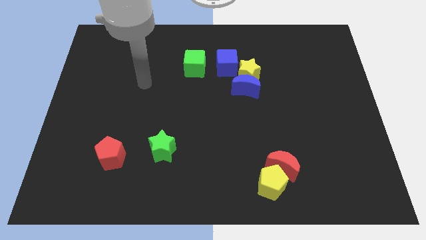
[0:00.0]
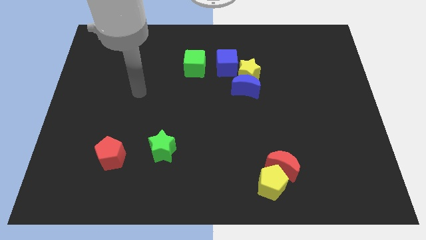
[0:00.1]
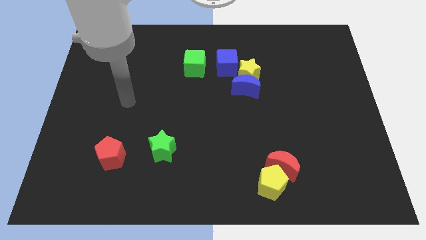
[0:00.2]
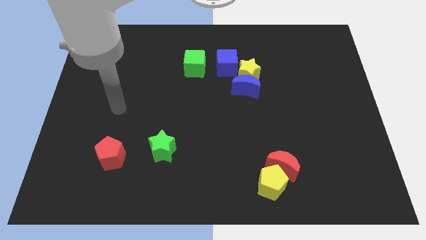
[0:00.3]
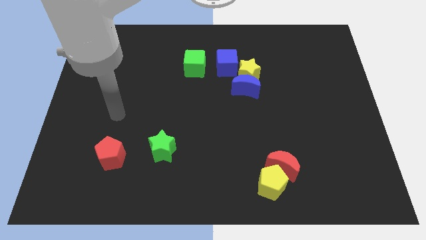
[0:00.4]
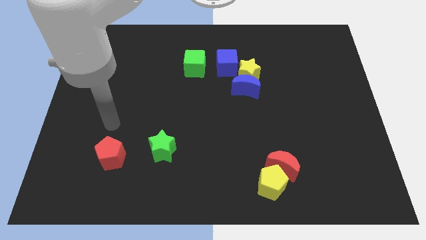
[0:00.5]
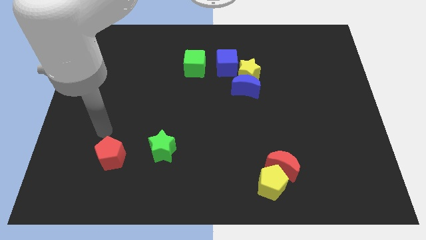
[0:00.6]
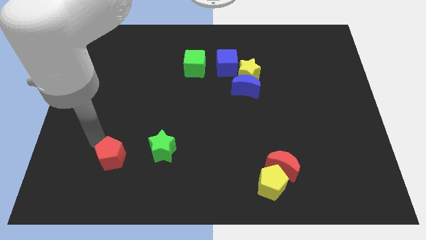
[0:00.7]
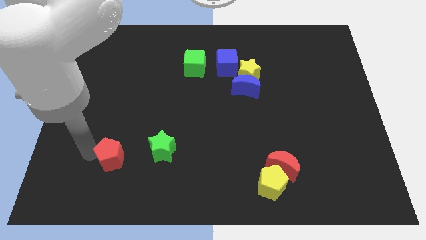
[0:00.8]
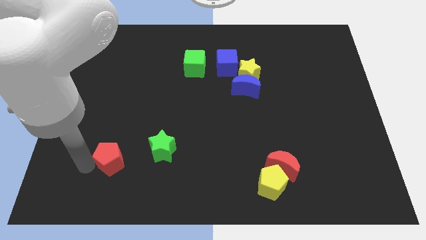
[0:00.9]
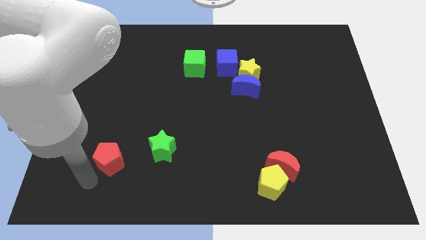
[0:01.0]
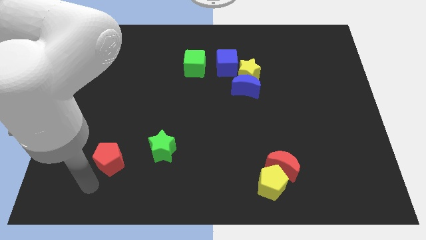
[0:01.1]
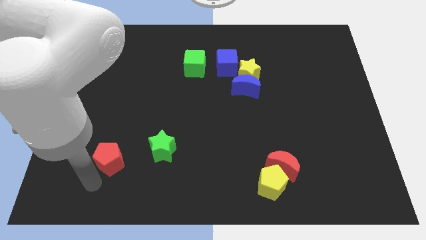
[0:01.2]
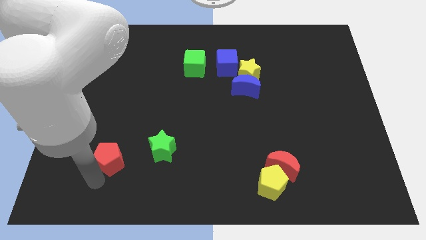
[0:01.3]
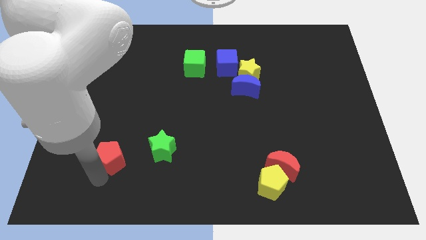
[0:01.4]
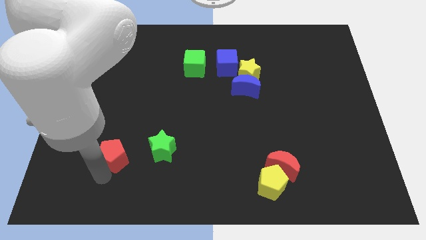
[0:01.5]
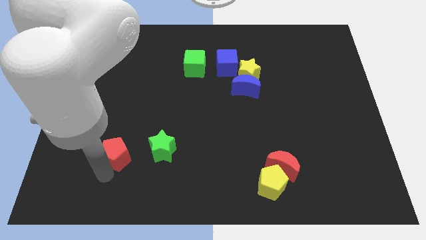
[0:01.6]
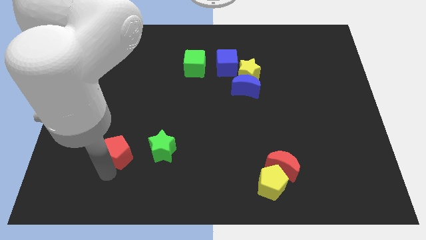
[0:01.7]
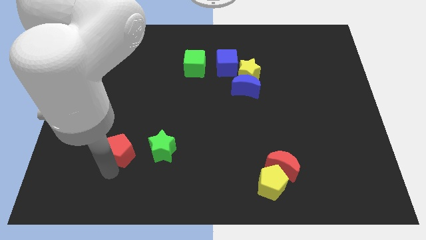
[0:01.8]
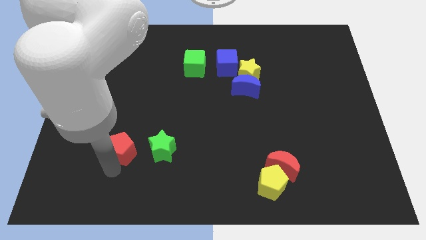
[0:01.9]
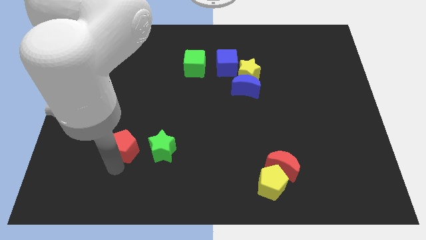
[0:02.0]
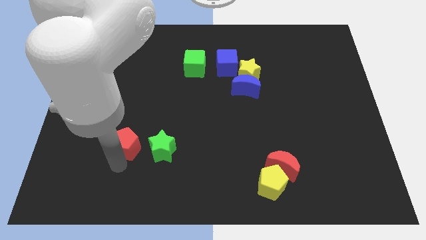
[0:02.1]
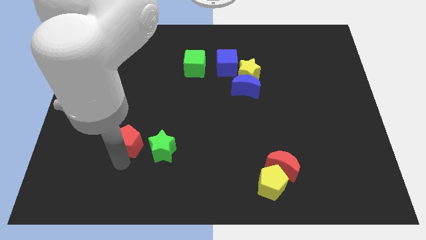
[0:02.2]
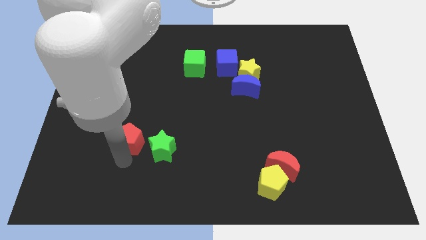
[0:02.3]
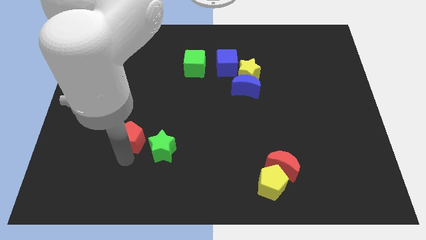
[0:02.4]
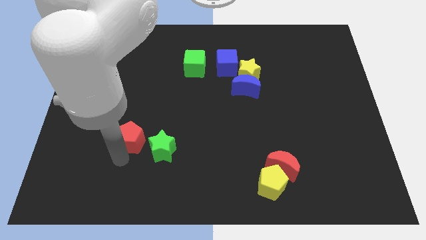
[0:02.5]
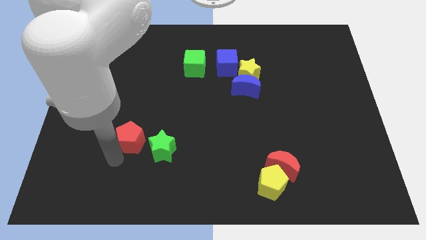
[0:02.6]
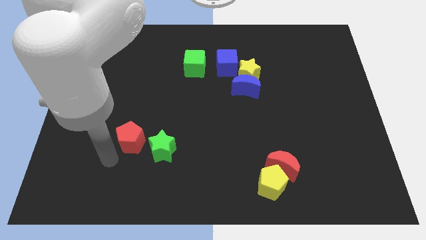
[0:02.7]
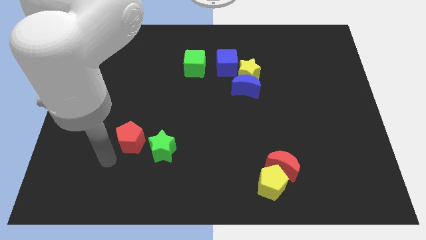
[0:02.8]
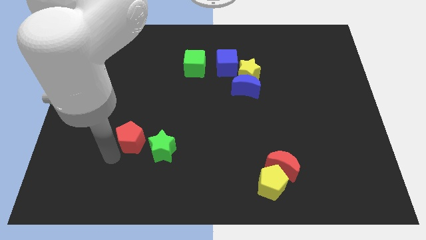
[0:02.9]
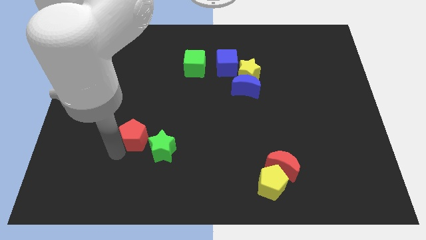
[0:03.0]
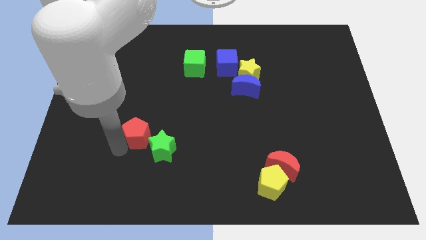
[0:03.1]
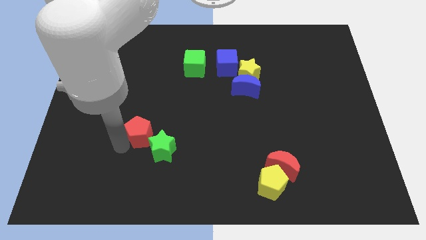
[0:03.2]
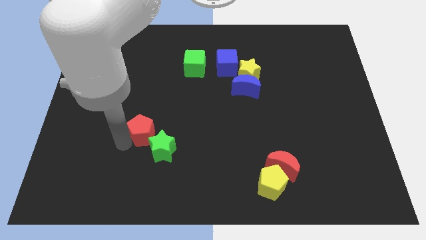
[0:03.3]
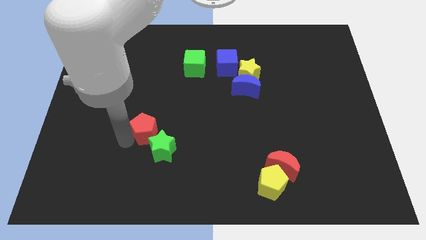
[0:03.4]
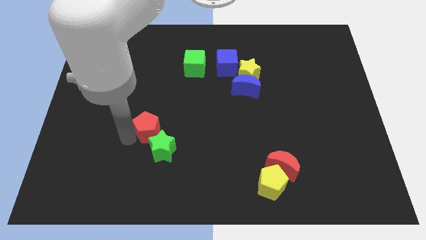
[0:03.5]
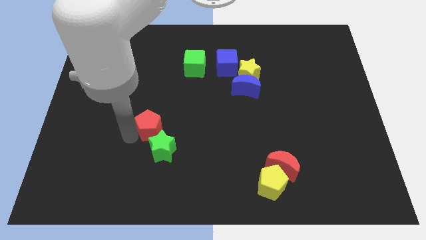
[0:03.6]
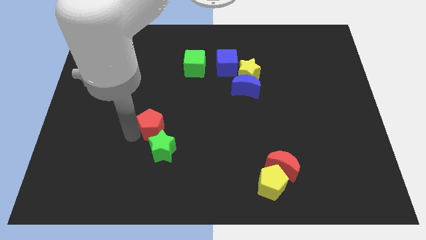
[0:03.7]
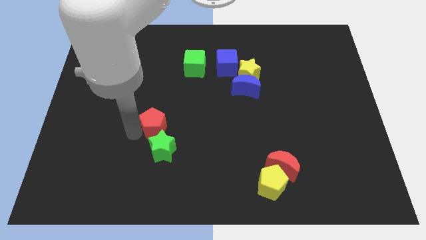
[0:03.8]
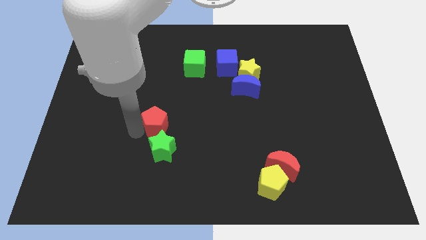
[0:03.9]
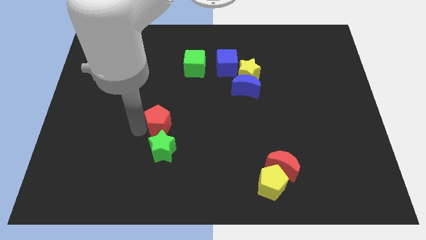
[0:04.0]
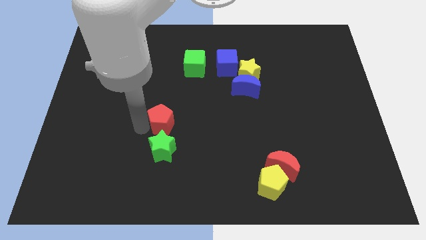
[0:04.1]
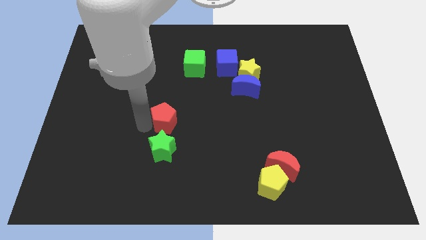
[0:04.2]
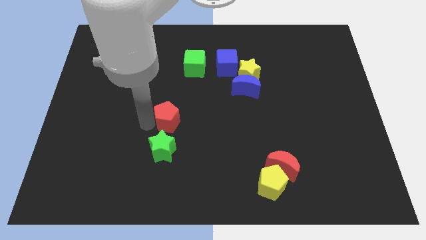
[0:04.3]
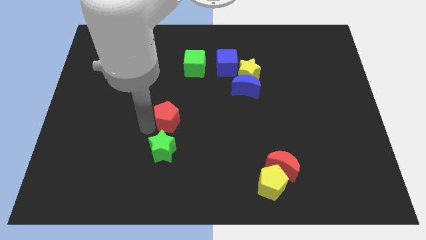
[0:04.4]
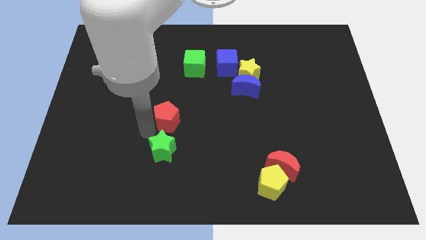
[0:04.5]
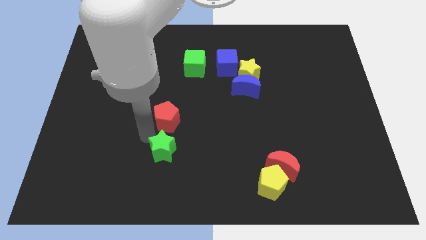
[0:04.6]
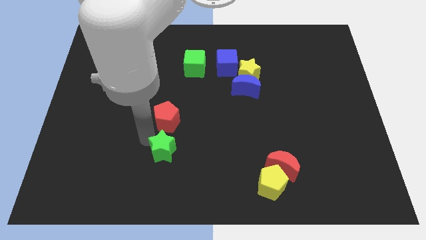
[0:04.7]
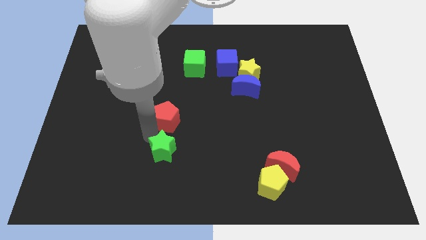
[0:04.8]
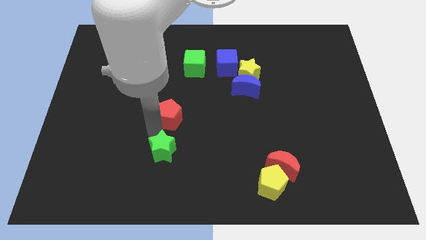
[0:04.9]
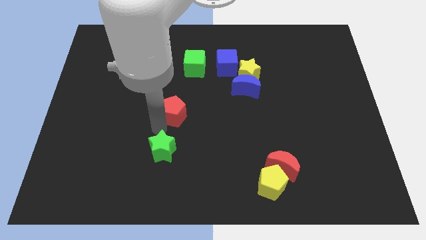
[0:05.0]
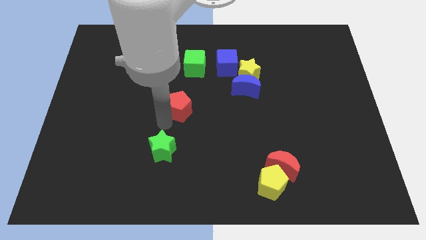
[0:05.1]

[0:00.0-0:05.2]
push the red pentagon to the bottom of the green cube

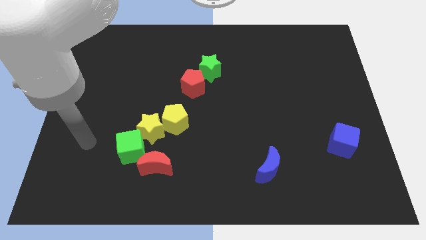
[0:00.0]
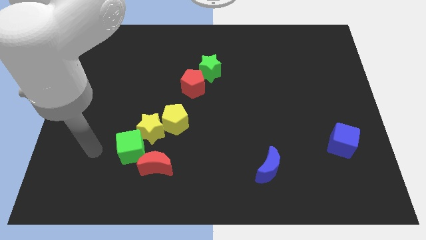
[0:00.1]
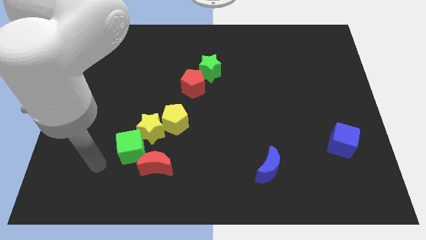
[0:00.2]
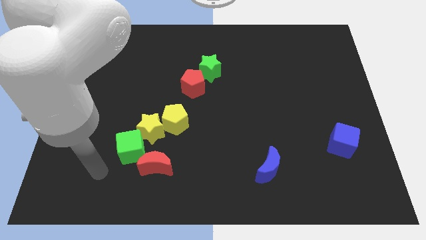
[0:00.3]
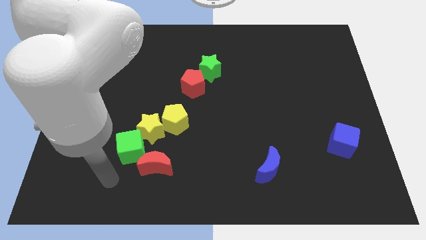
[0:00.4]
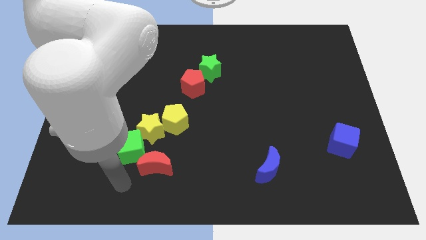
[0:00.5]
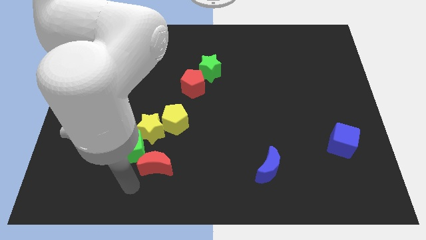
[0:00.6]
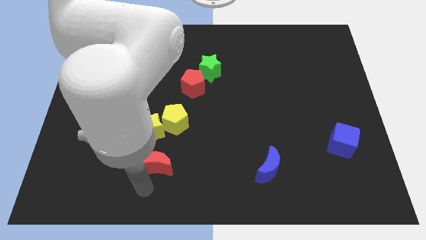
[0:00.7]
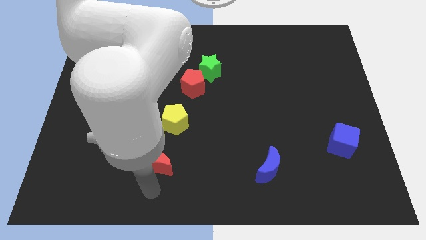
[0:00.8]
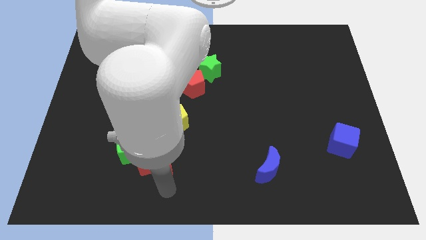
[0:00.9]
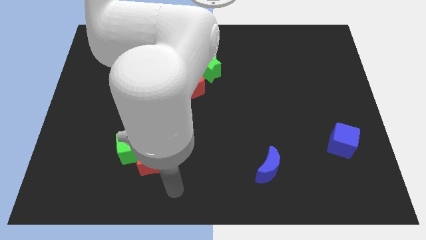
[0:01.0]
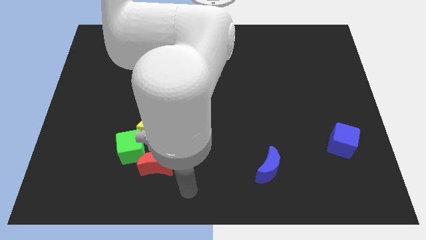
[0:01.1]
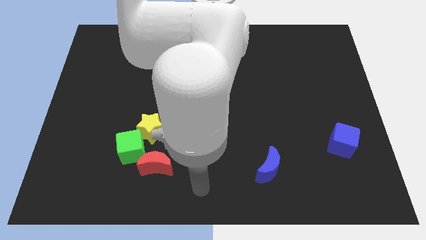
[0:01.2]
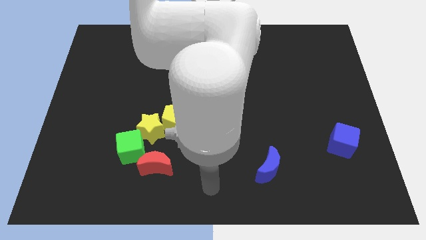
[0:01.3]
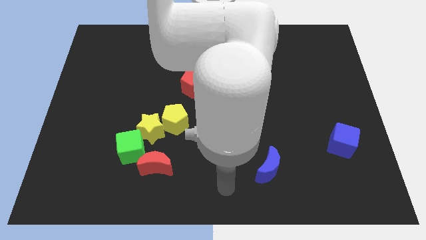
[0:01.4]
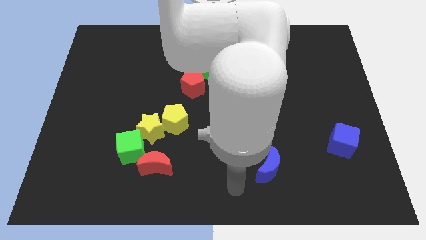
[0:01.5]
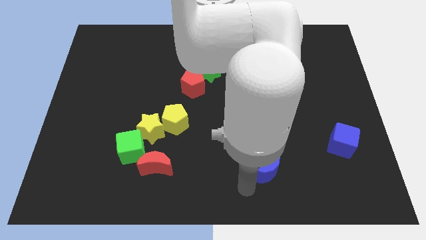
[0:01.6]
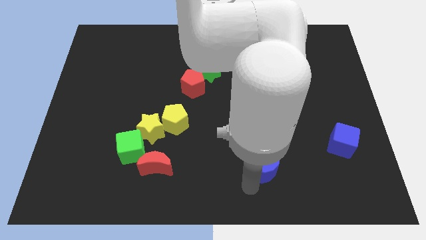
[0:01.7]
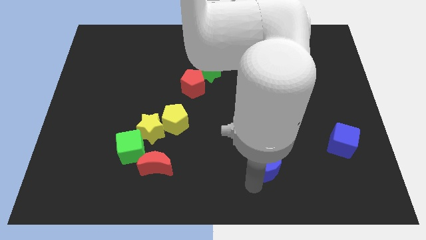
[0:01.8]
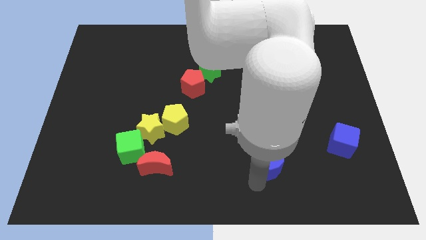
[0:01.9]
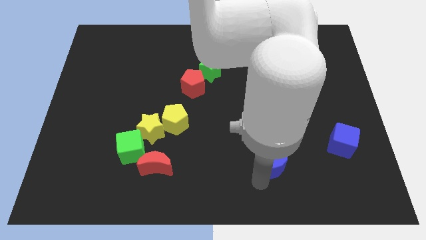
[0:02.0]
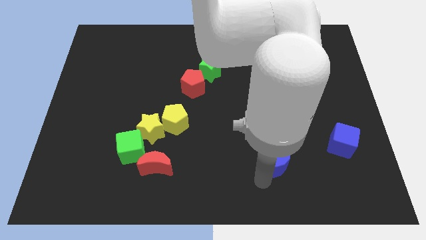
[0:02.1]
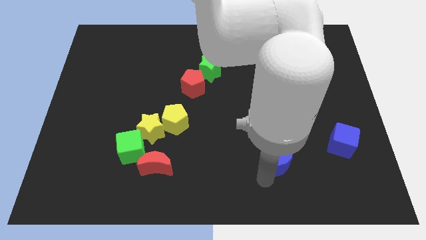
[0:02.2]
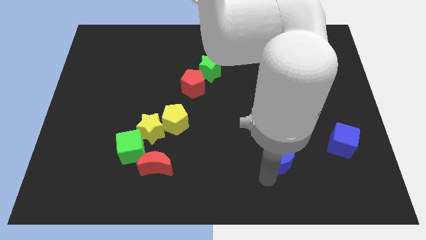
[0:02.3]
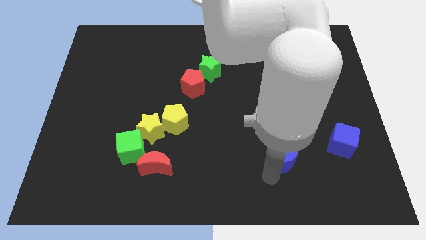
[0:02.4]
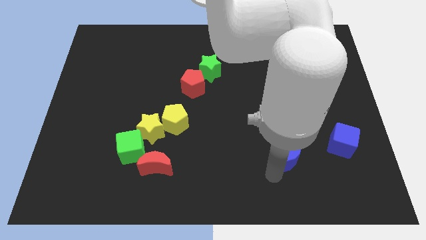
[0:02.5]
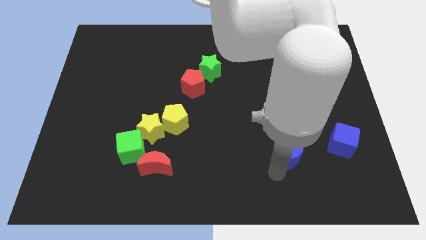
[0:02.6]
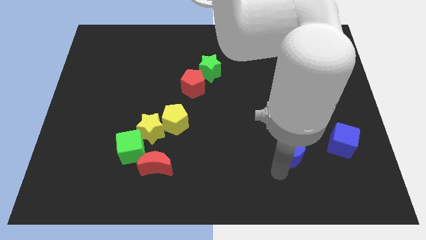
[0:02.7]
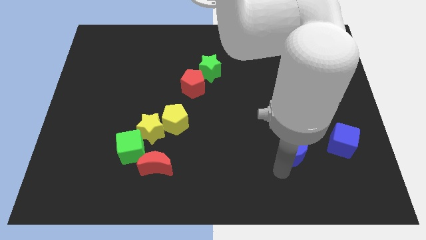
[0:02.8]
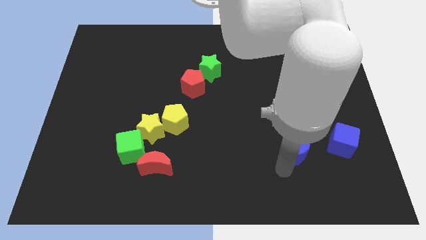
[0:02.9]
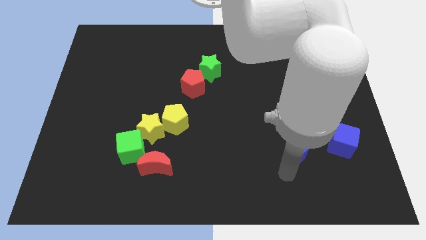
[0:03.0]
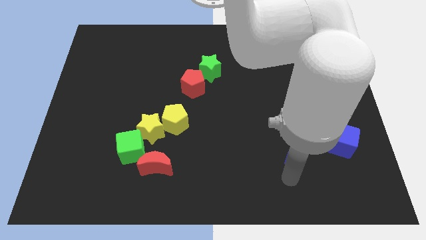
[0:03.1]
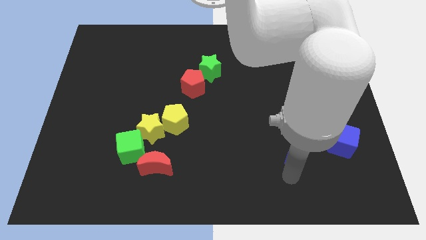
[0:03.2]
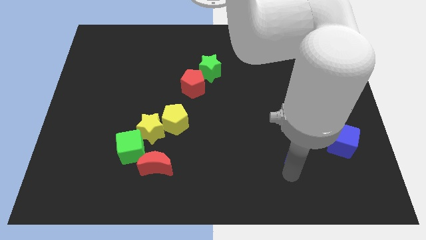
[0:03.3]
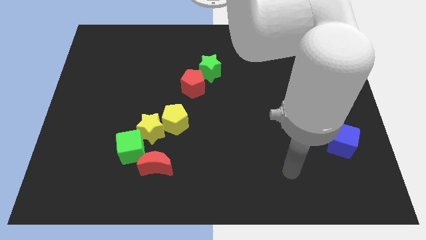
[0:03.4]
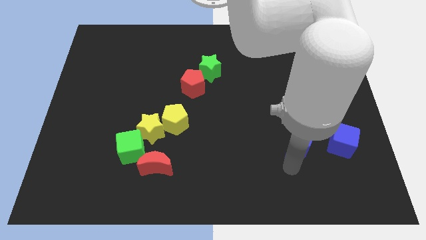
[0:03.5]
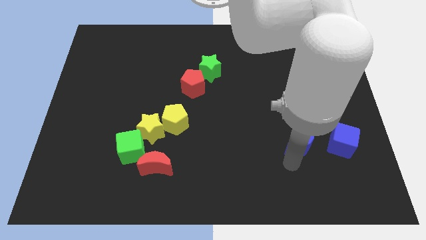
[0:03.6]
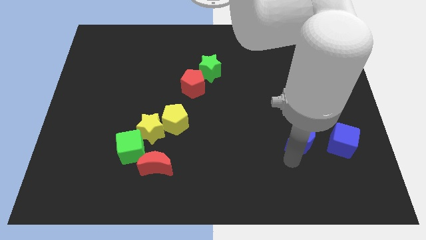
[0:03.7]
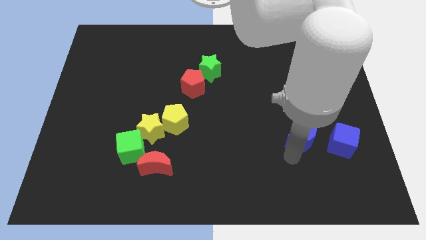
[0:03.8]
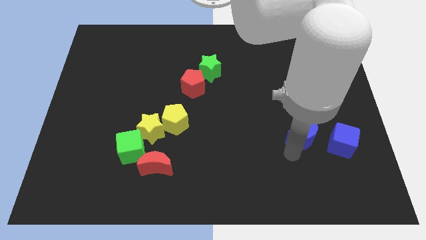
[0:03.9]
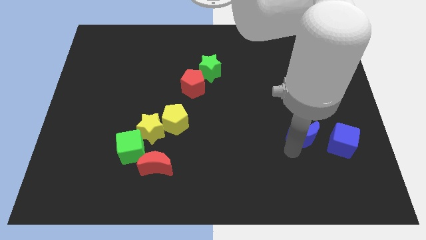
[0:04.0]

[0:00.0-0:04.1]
slide the blue moon to the top left side of the blue cube
